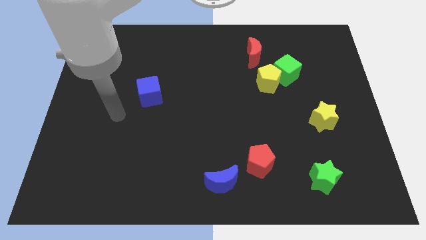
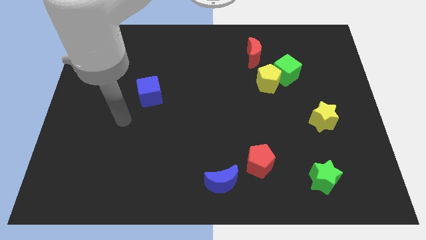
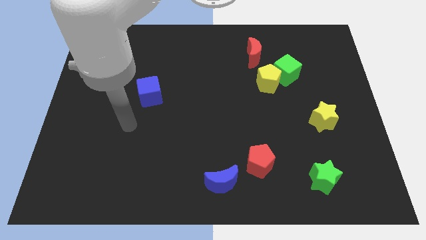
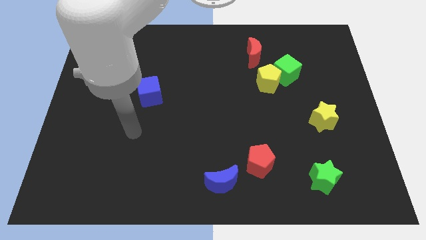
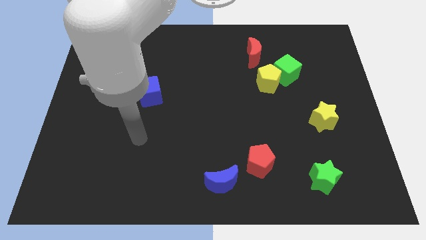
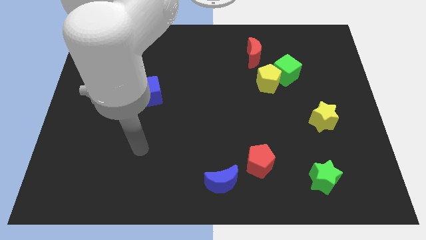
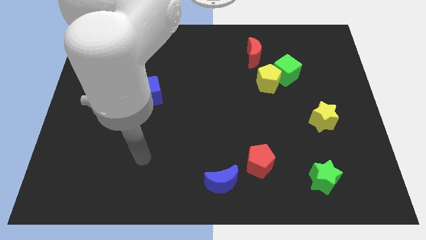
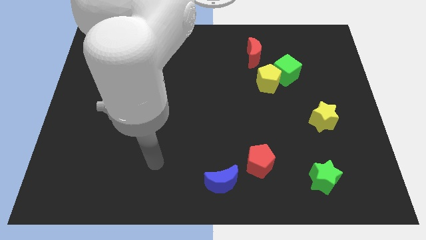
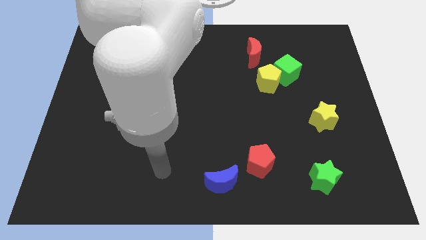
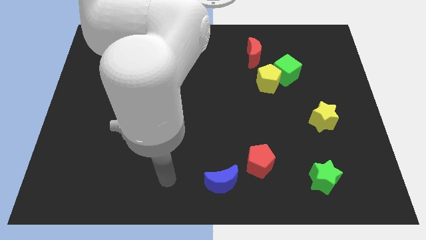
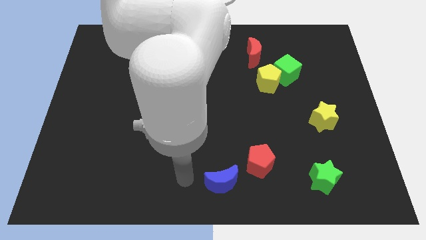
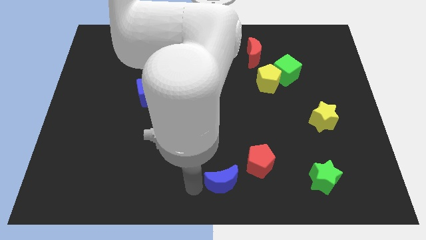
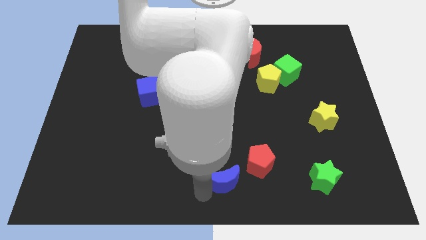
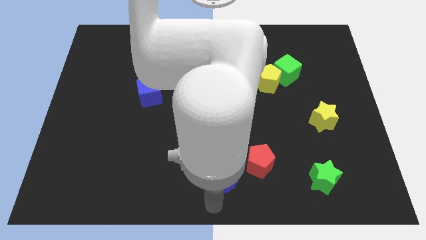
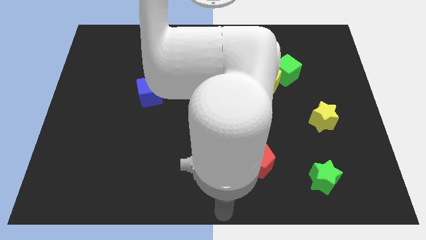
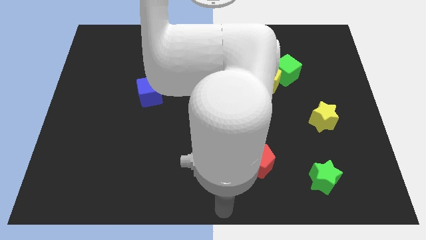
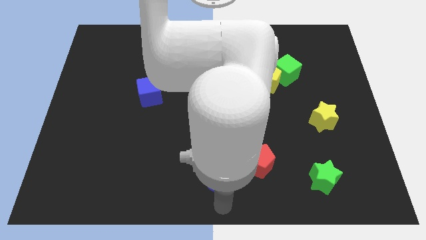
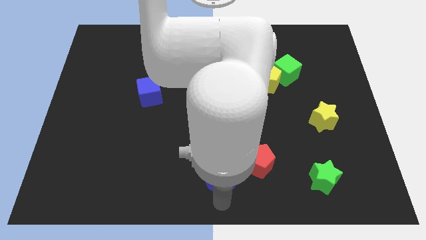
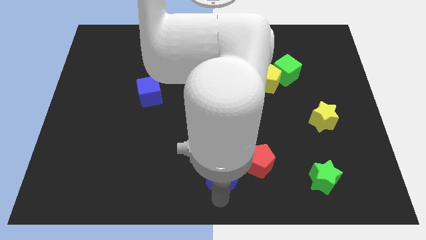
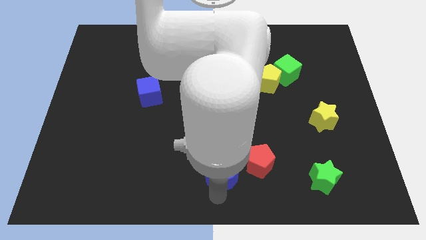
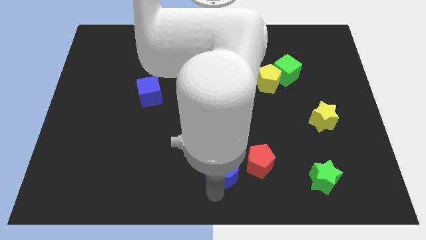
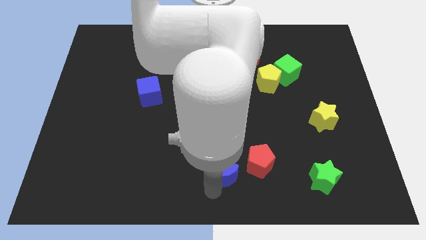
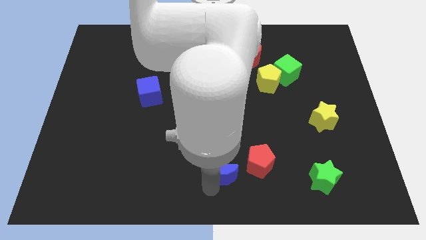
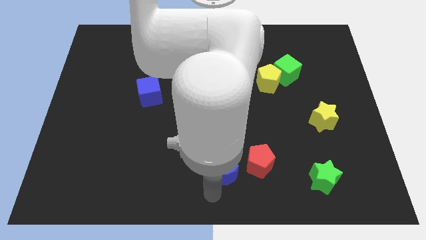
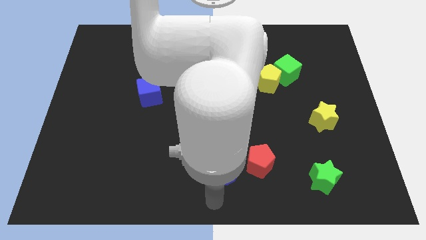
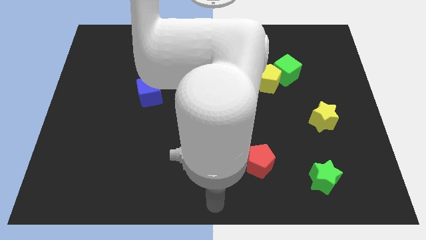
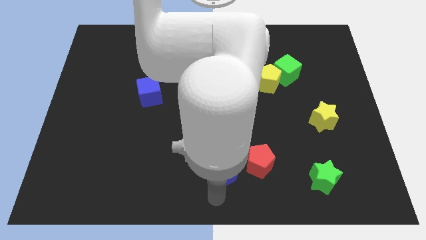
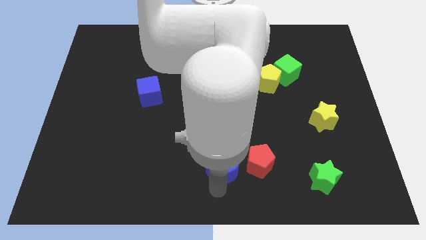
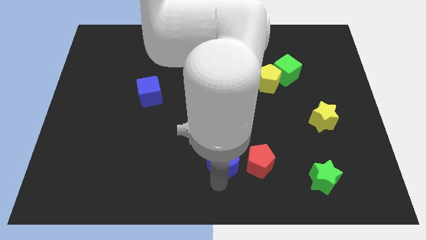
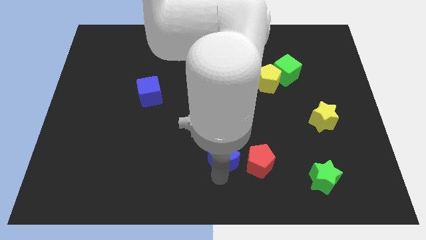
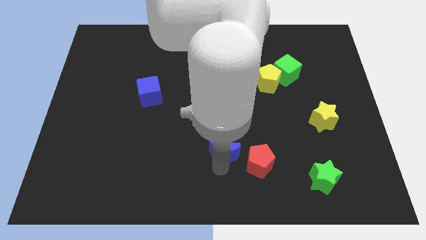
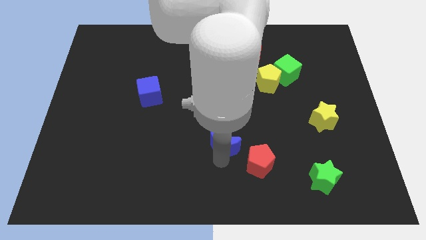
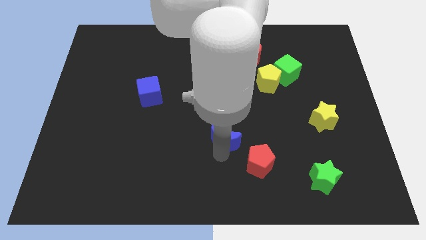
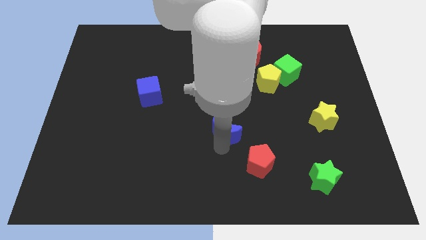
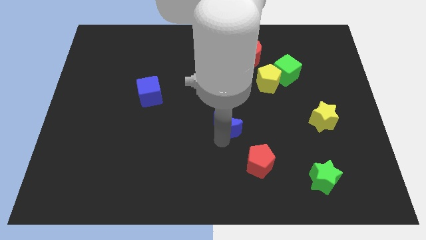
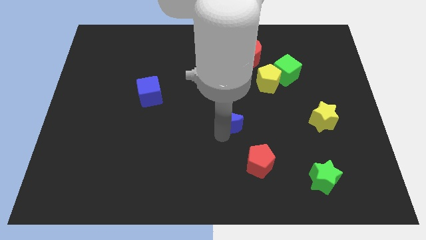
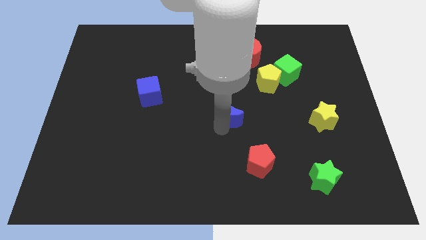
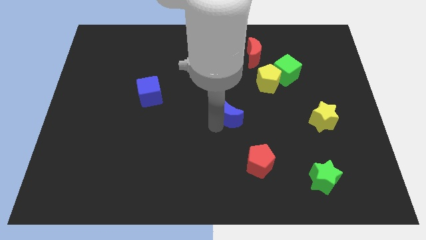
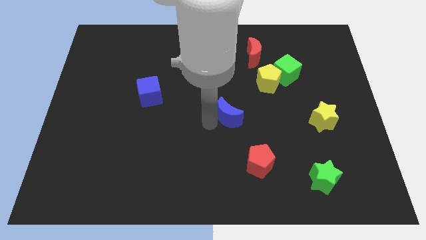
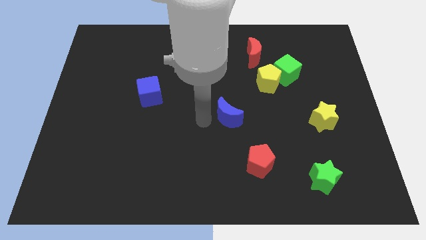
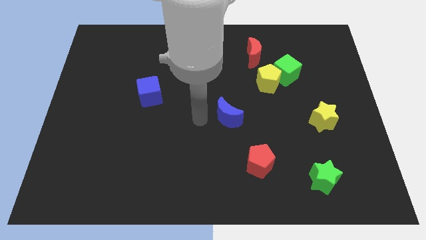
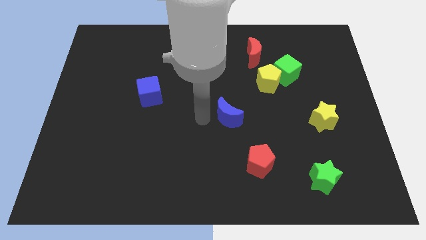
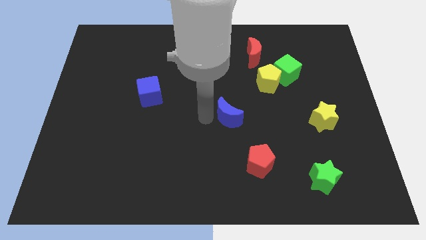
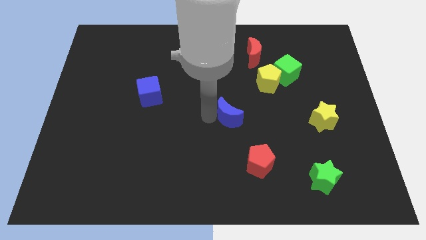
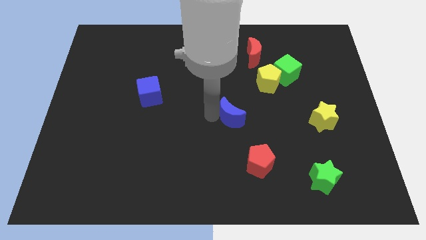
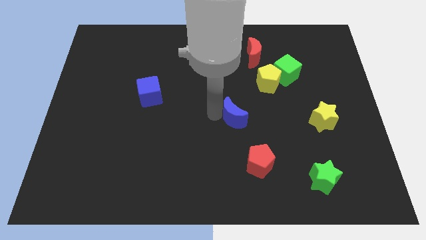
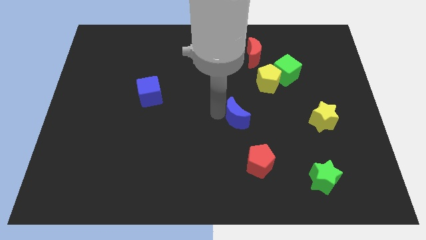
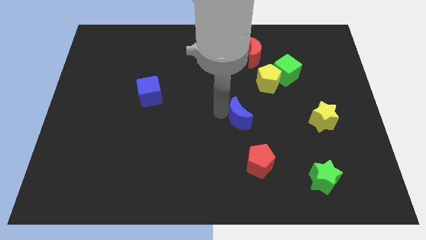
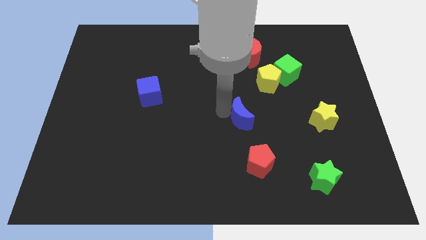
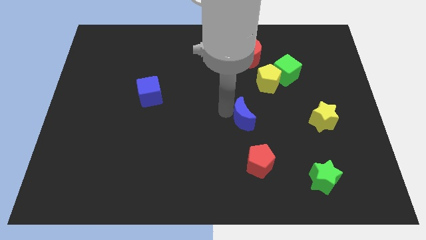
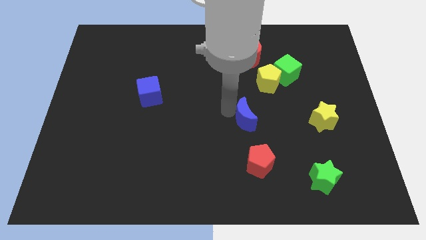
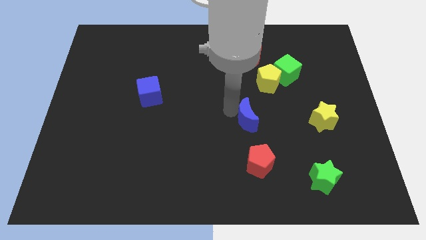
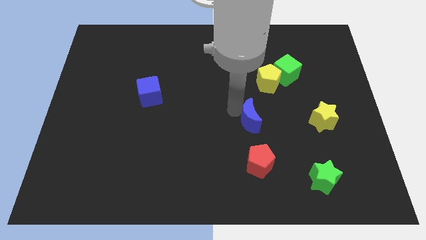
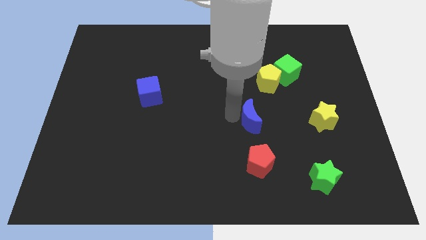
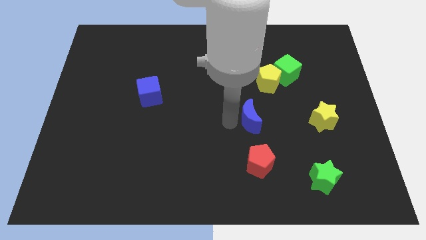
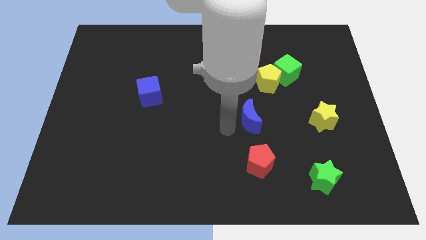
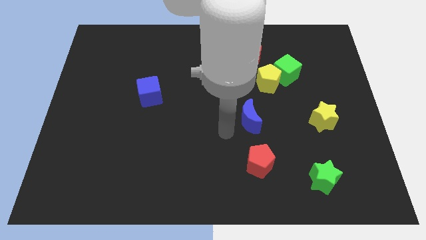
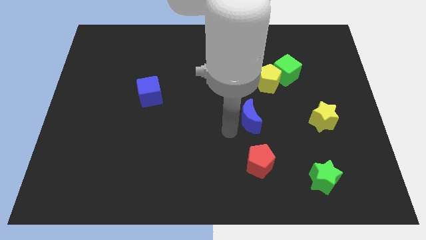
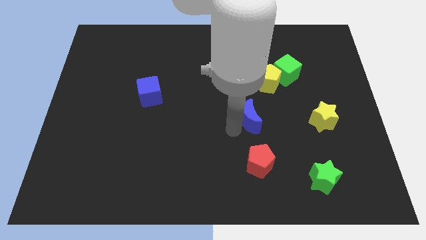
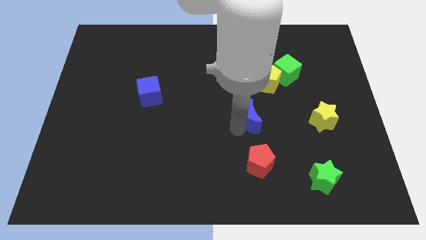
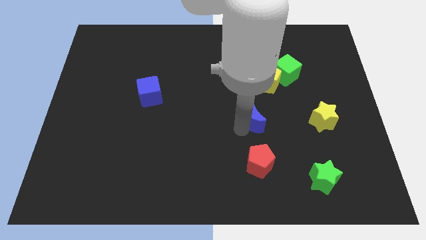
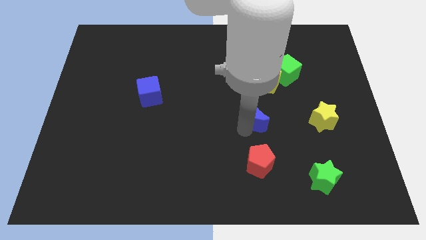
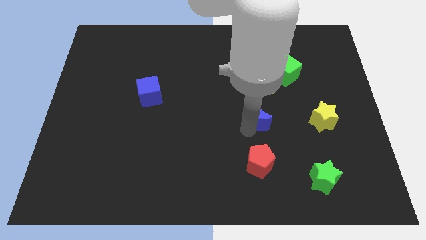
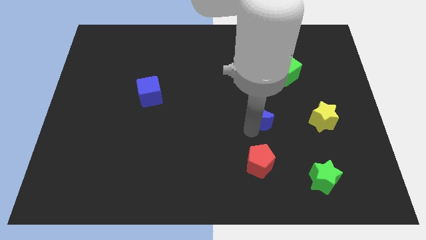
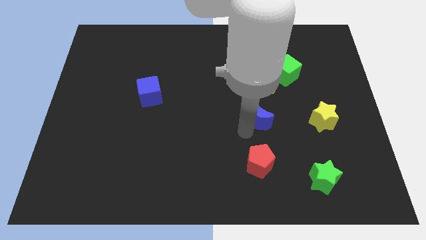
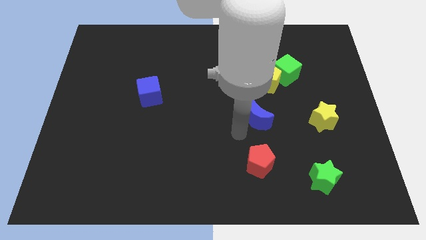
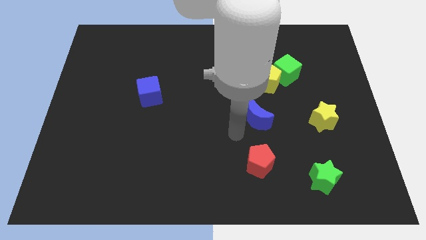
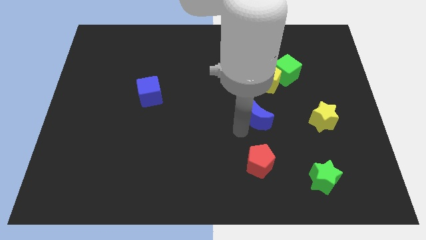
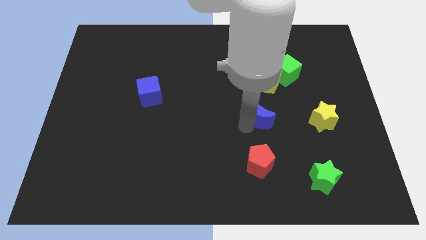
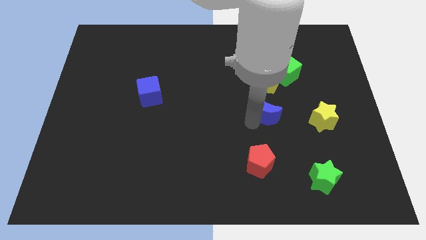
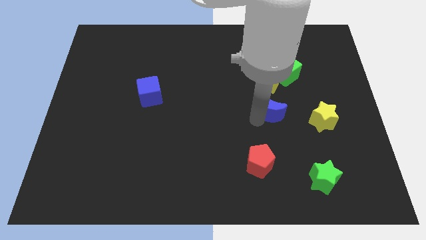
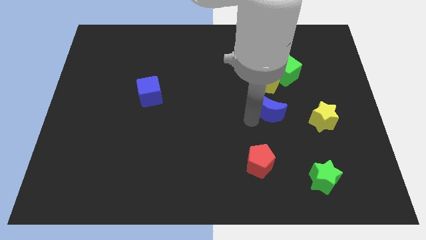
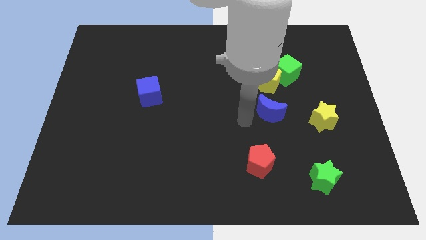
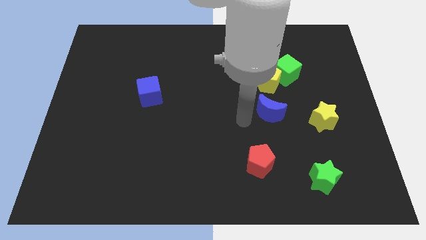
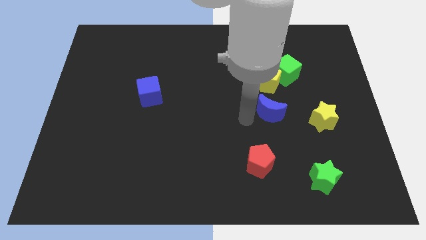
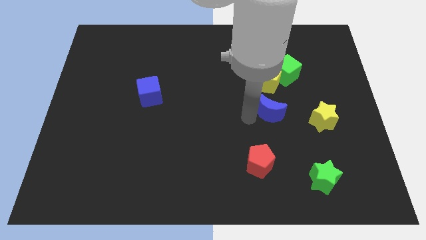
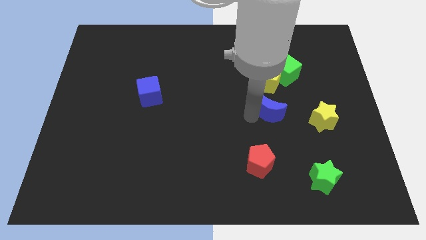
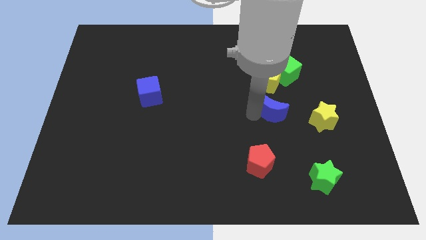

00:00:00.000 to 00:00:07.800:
move the blue moon below the green cube
